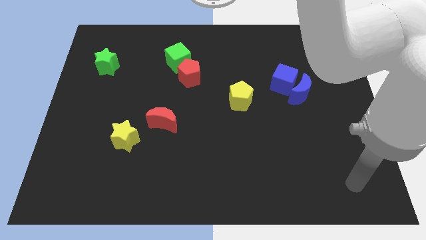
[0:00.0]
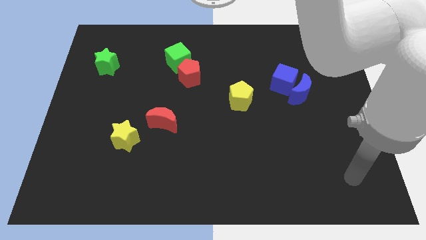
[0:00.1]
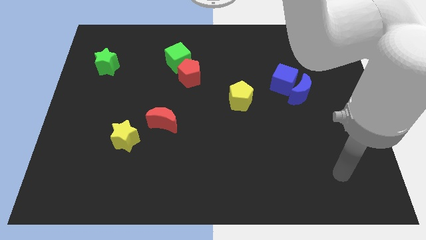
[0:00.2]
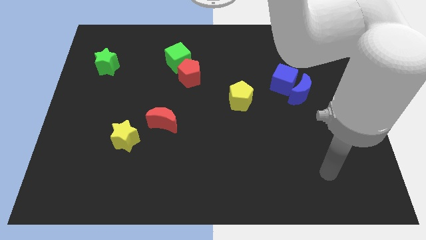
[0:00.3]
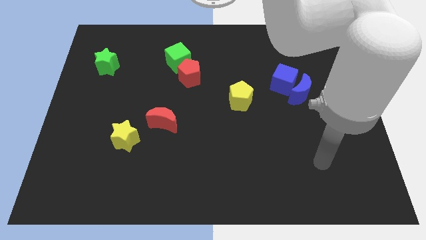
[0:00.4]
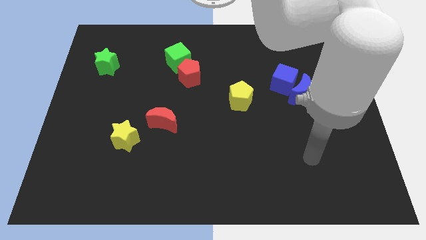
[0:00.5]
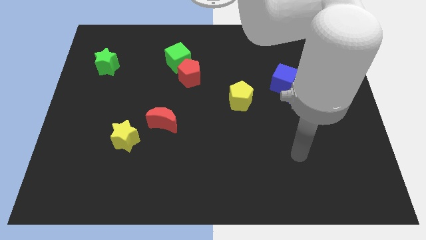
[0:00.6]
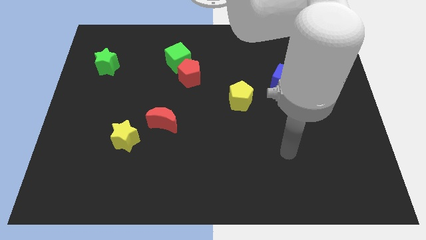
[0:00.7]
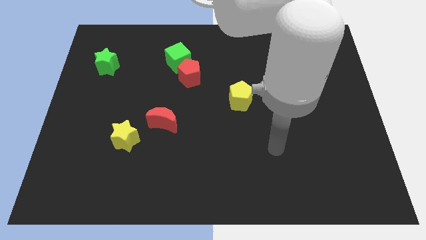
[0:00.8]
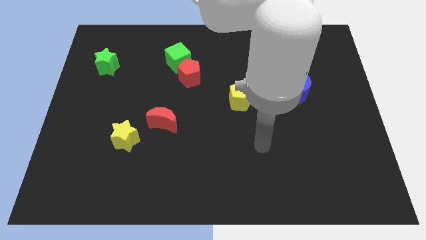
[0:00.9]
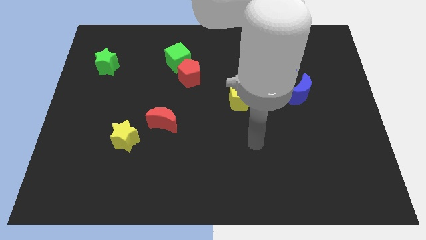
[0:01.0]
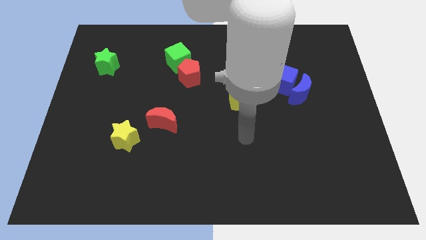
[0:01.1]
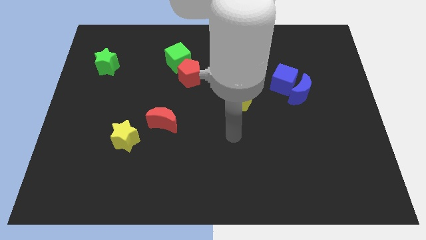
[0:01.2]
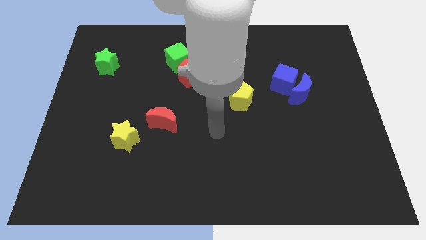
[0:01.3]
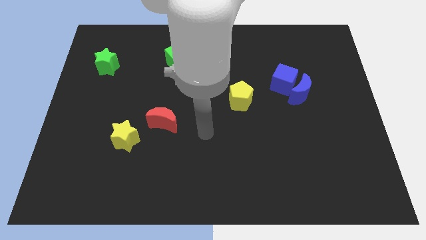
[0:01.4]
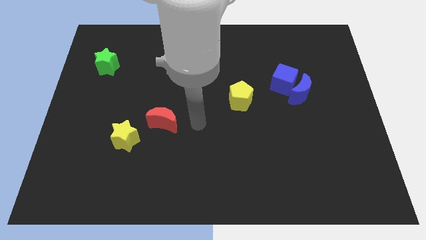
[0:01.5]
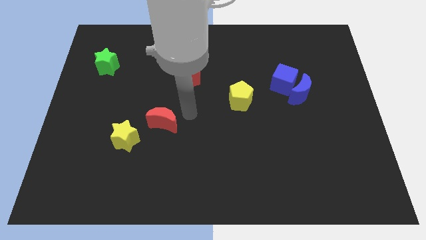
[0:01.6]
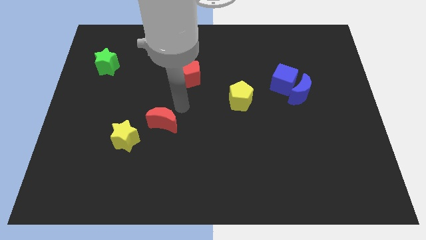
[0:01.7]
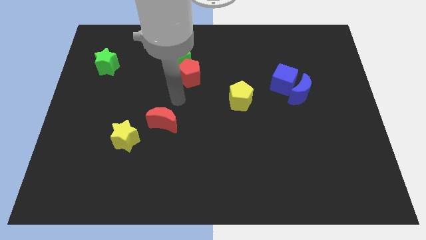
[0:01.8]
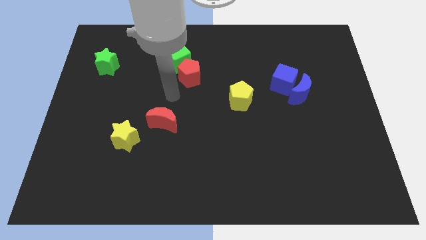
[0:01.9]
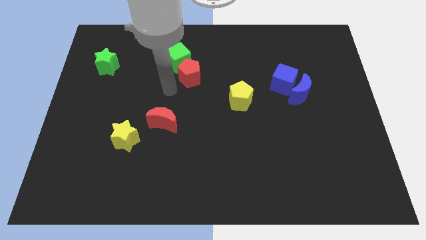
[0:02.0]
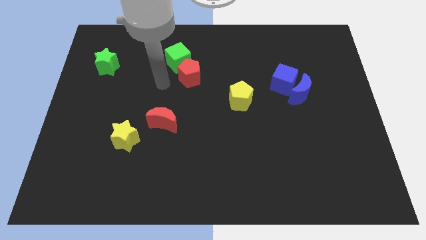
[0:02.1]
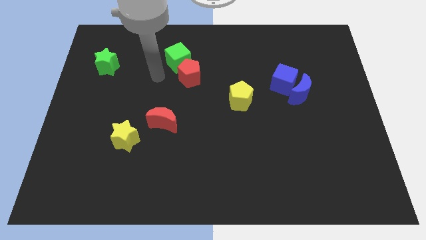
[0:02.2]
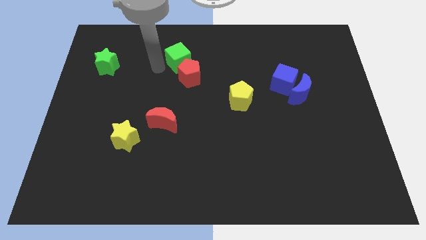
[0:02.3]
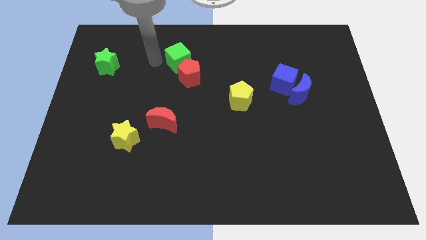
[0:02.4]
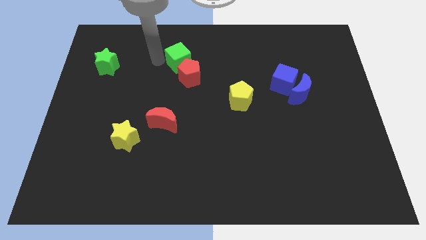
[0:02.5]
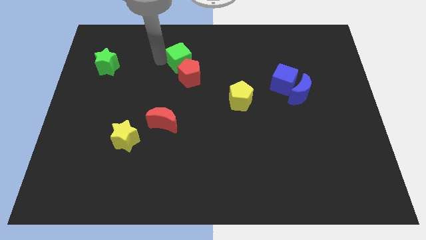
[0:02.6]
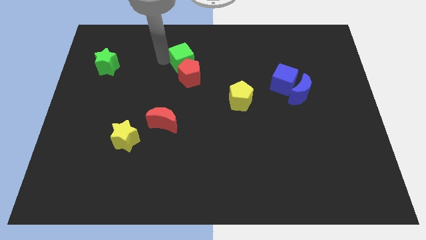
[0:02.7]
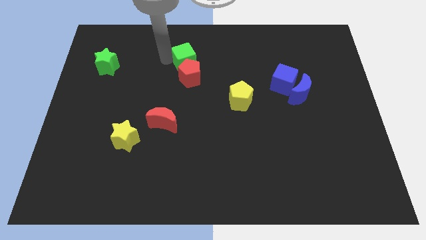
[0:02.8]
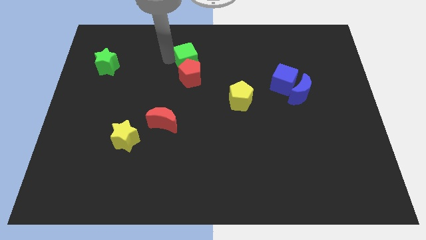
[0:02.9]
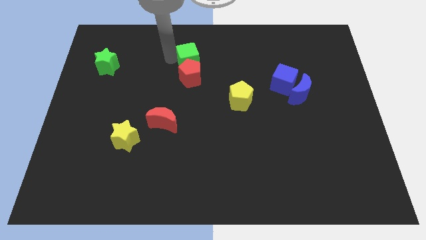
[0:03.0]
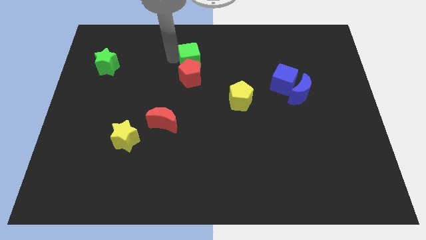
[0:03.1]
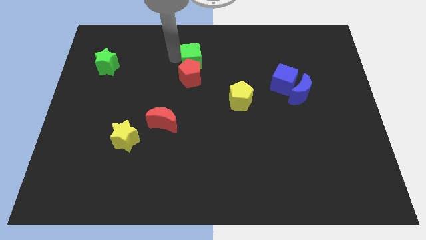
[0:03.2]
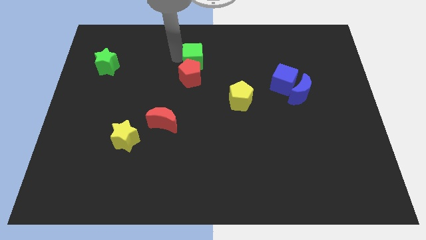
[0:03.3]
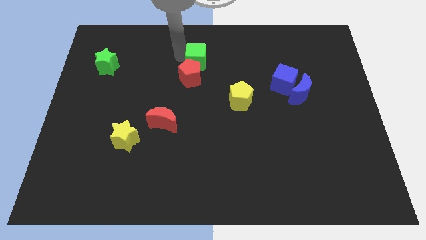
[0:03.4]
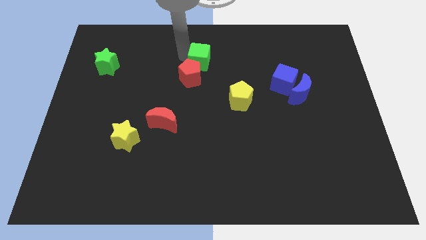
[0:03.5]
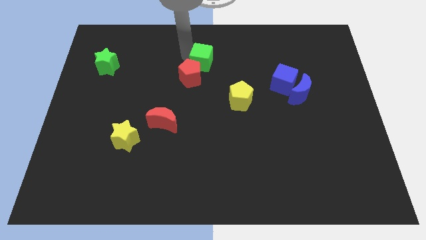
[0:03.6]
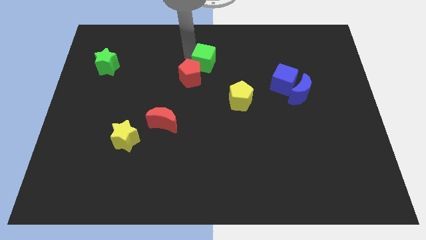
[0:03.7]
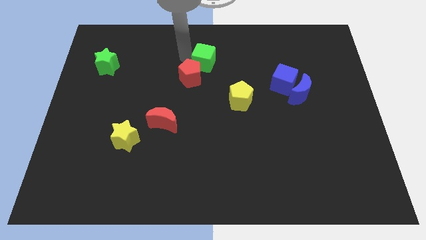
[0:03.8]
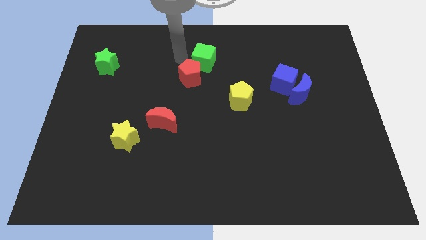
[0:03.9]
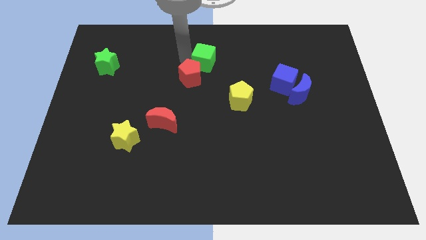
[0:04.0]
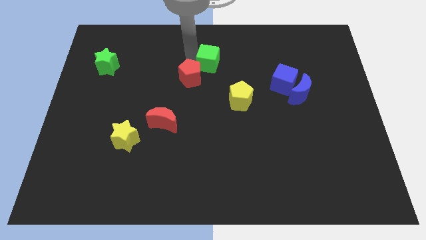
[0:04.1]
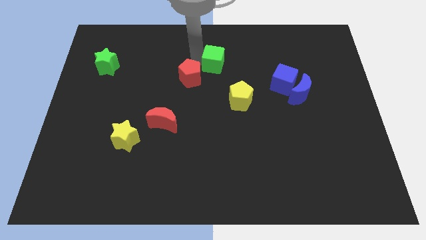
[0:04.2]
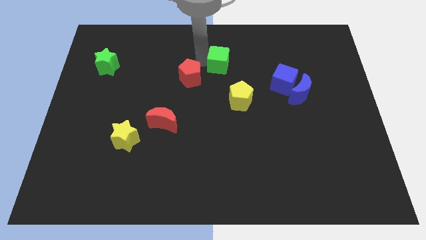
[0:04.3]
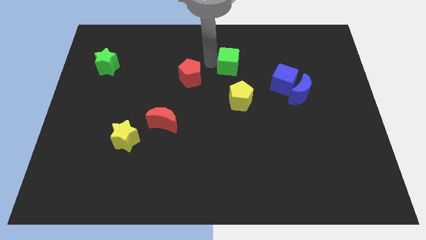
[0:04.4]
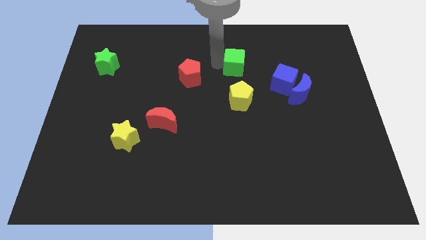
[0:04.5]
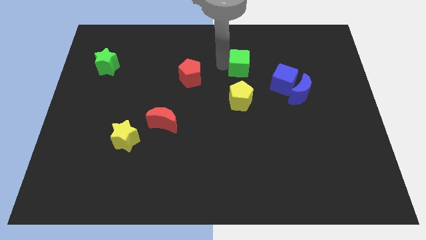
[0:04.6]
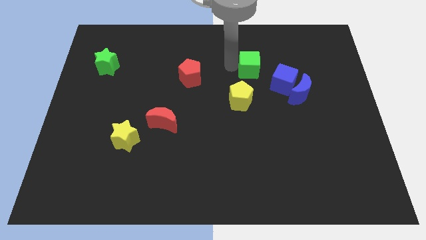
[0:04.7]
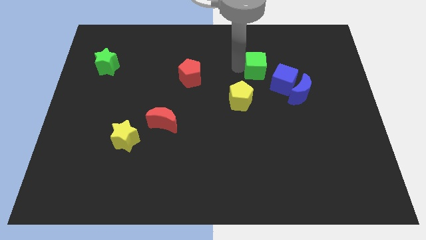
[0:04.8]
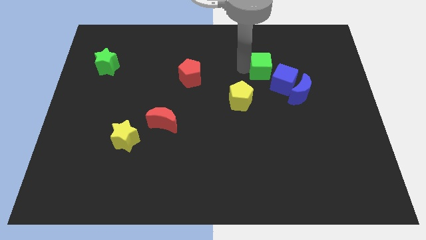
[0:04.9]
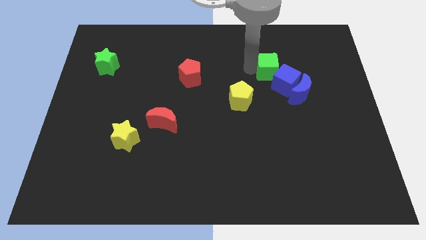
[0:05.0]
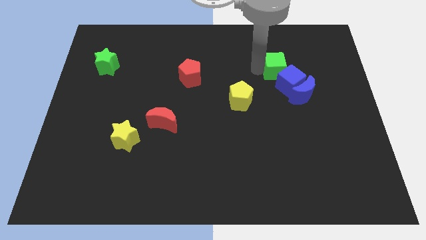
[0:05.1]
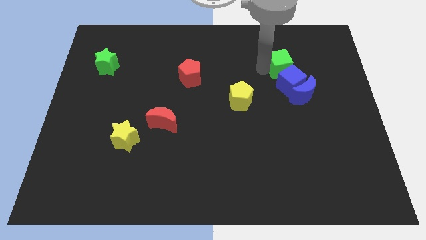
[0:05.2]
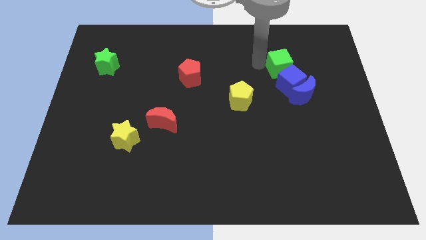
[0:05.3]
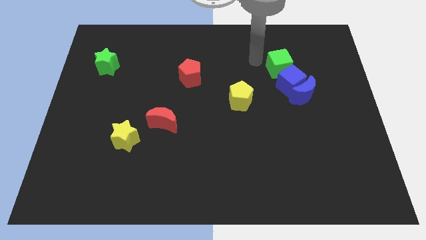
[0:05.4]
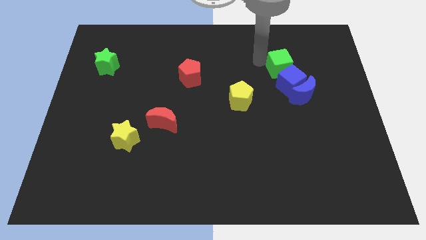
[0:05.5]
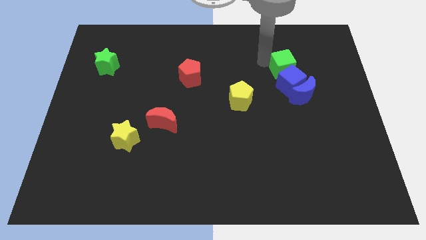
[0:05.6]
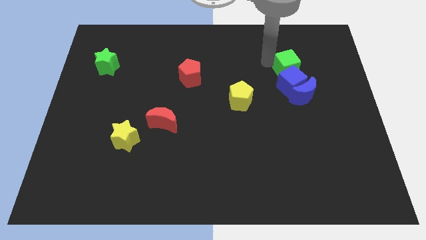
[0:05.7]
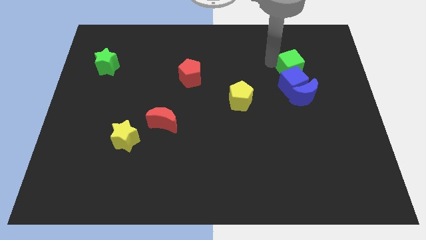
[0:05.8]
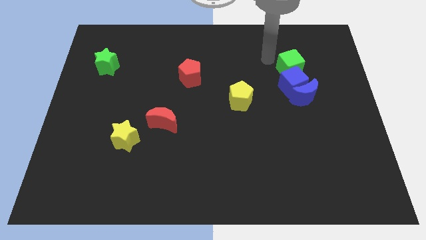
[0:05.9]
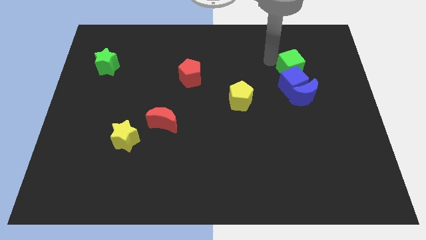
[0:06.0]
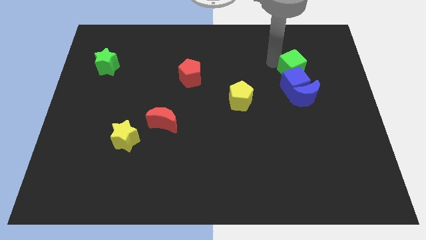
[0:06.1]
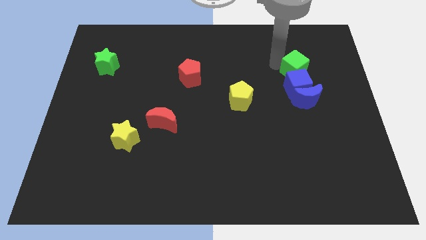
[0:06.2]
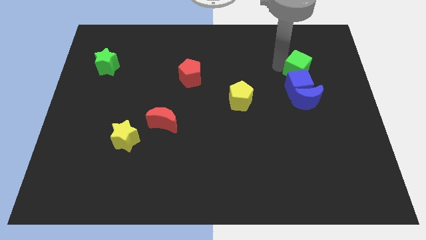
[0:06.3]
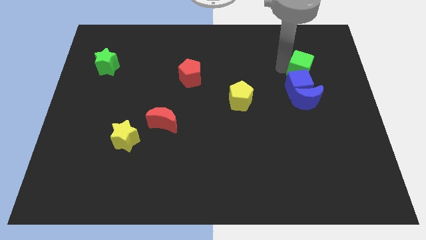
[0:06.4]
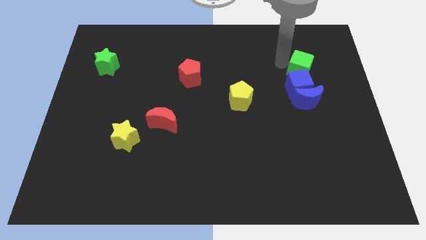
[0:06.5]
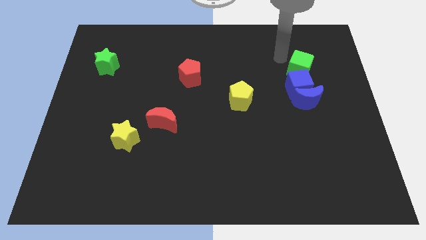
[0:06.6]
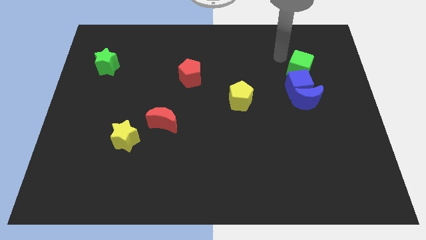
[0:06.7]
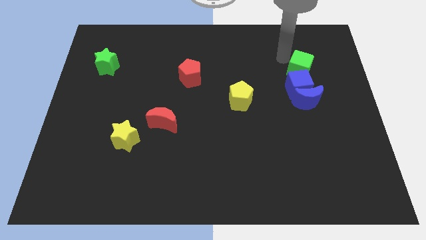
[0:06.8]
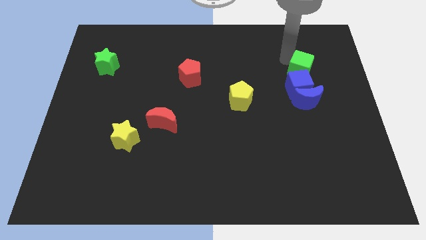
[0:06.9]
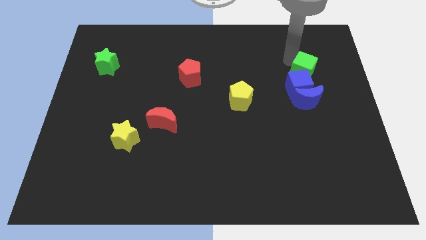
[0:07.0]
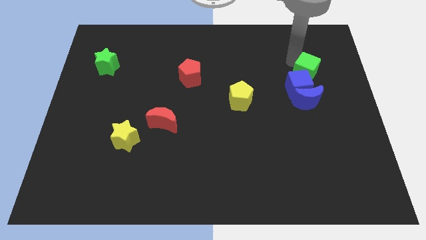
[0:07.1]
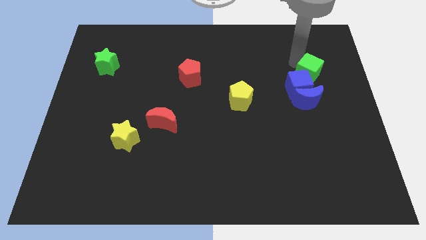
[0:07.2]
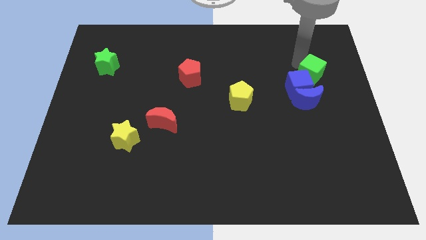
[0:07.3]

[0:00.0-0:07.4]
slide the green cube diagonally up and to the right of the blue moon
